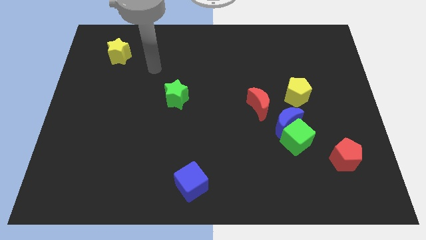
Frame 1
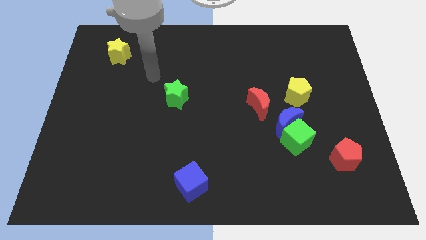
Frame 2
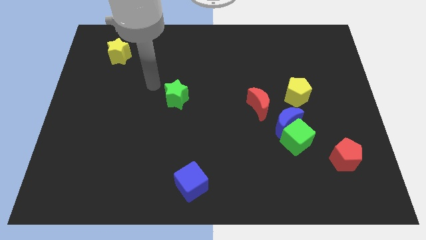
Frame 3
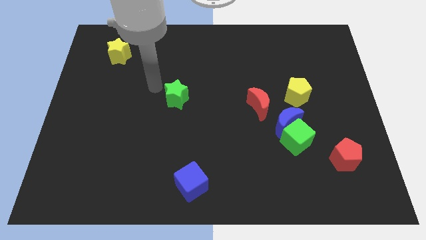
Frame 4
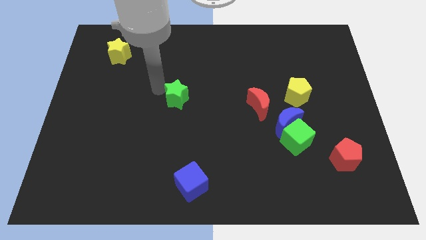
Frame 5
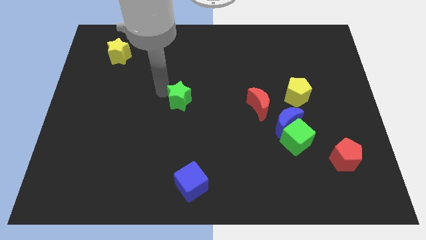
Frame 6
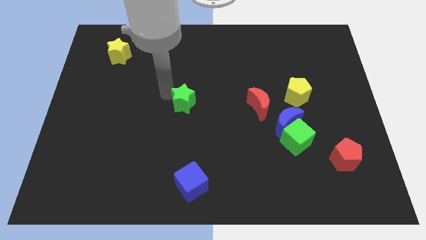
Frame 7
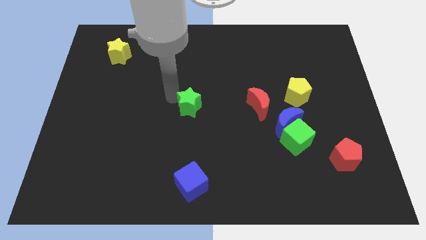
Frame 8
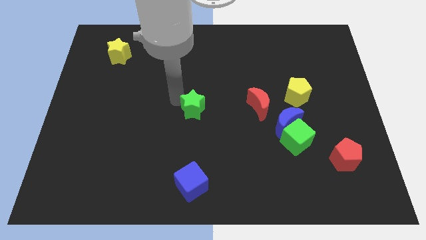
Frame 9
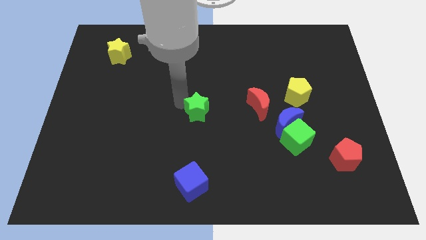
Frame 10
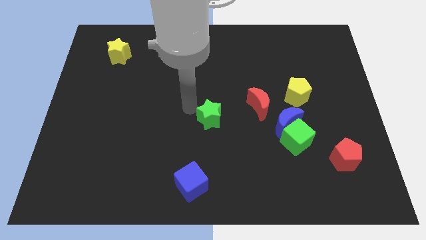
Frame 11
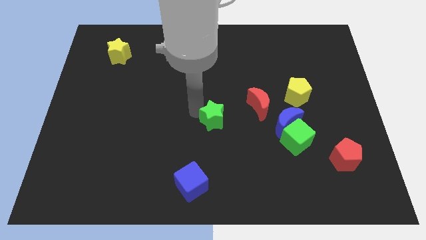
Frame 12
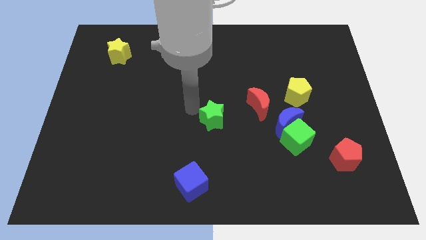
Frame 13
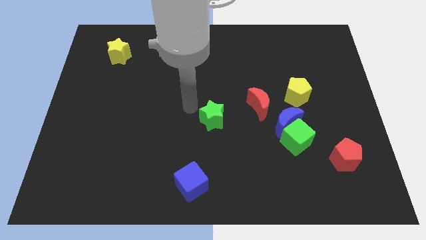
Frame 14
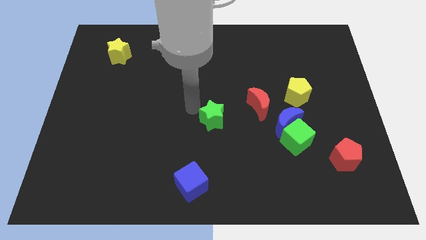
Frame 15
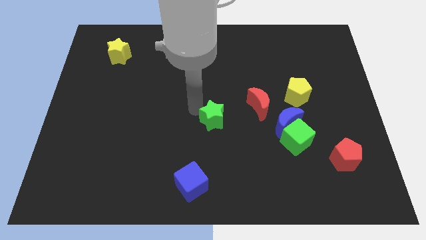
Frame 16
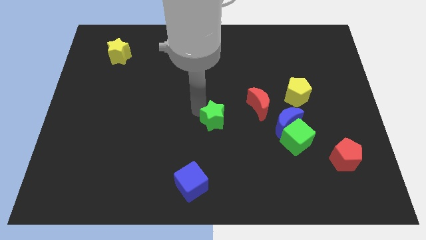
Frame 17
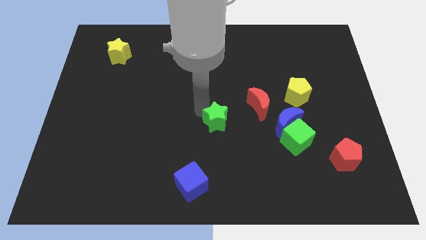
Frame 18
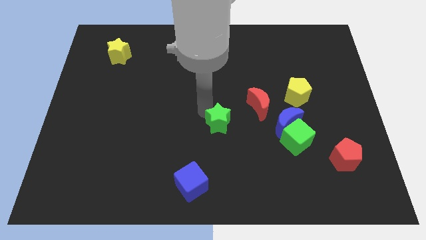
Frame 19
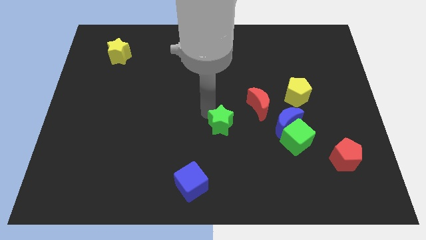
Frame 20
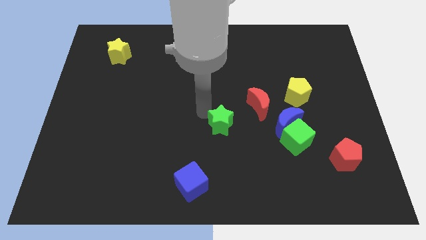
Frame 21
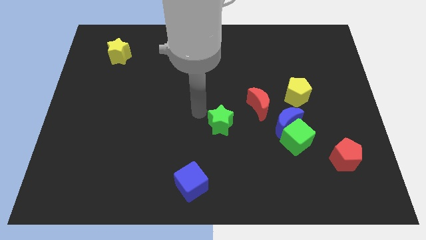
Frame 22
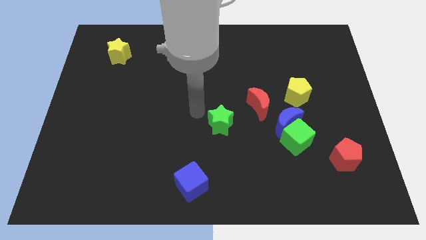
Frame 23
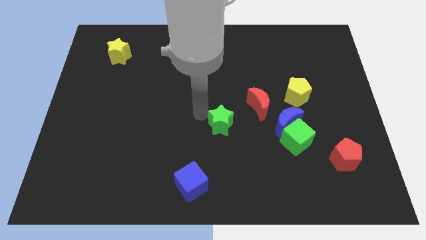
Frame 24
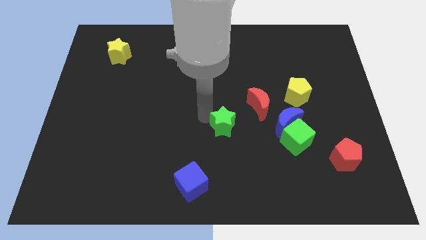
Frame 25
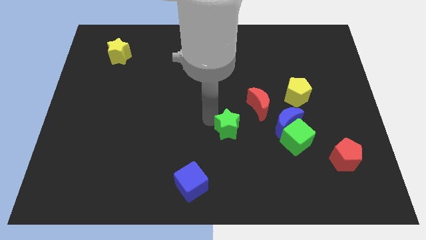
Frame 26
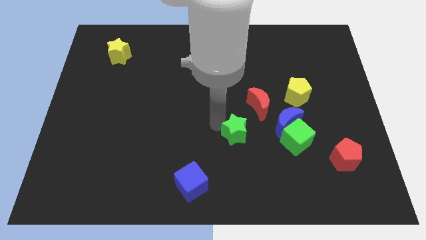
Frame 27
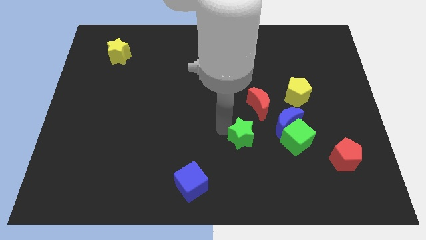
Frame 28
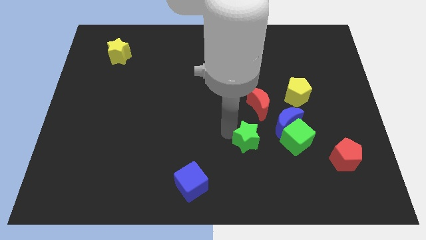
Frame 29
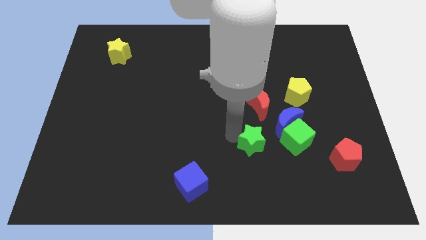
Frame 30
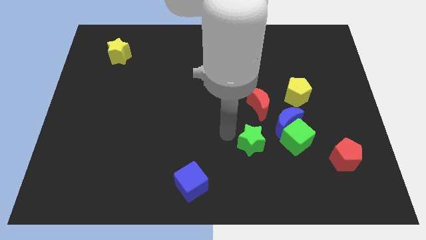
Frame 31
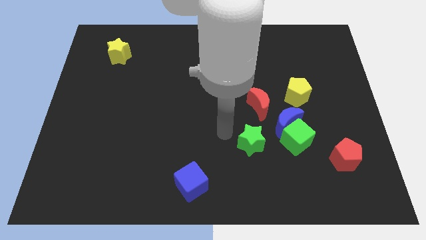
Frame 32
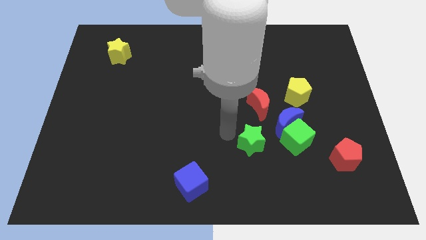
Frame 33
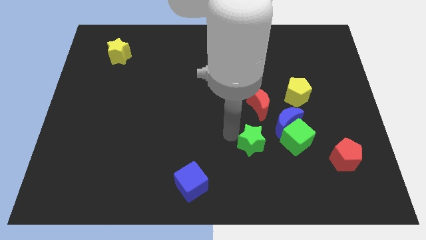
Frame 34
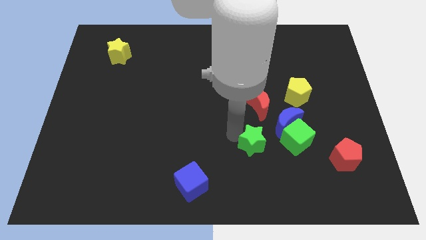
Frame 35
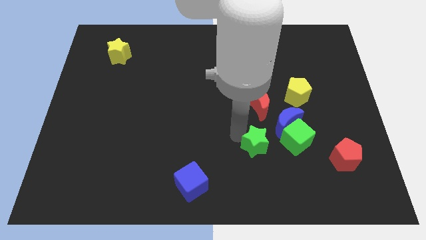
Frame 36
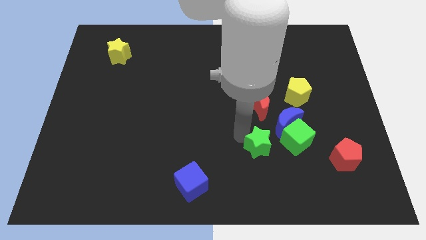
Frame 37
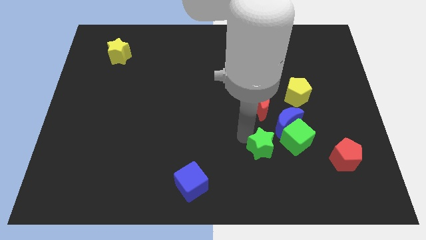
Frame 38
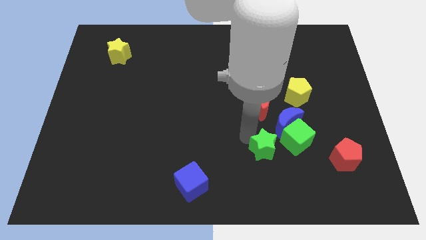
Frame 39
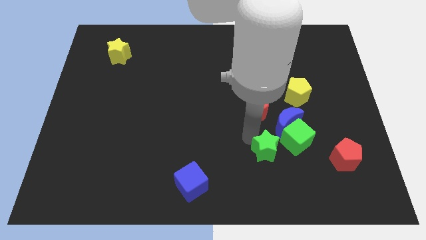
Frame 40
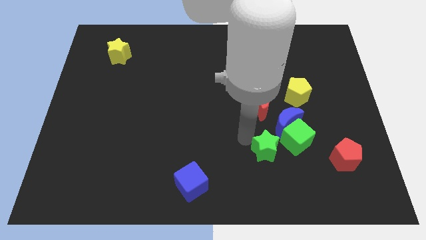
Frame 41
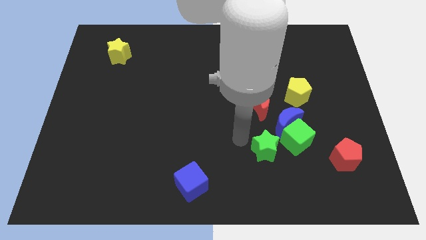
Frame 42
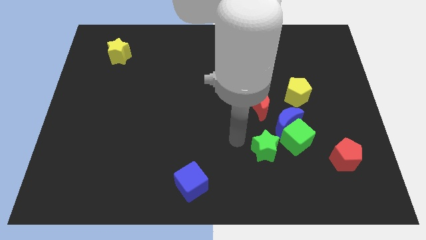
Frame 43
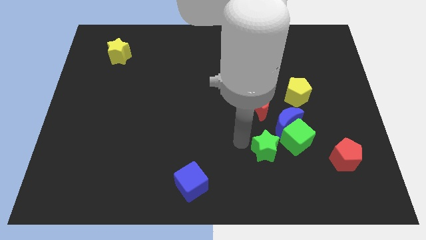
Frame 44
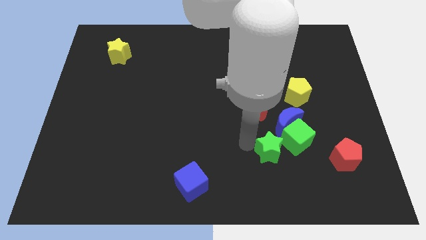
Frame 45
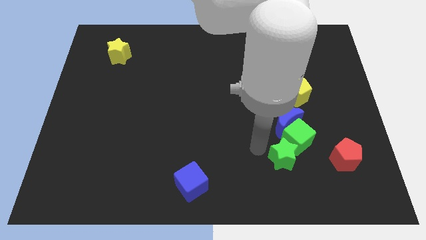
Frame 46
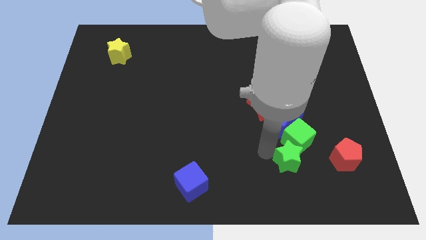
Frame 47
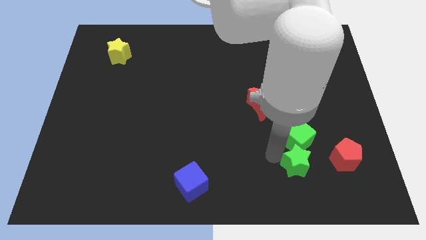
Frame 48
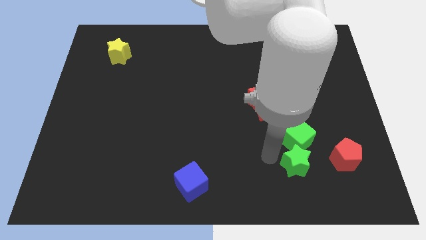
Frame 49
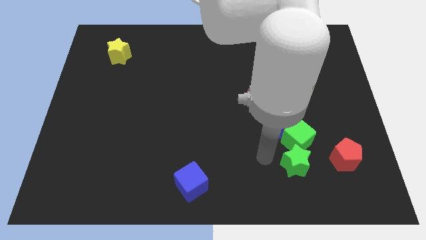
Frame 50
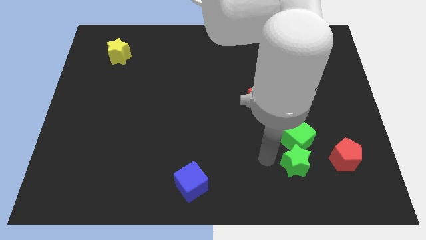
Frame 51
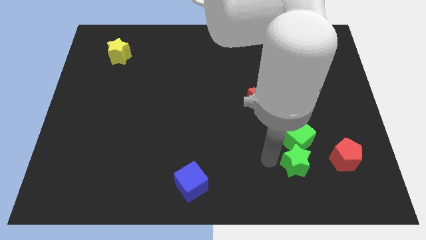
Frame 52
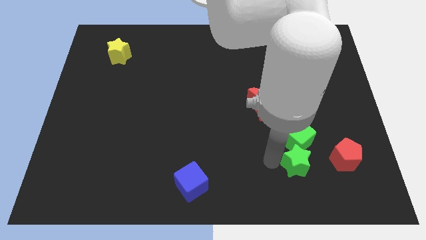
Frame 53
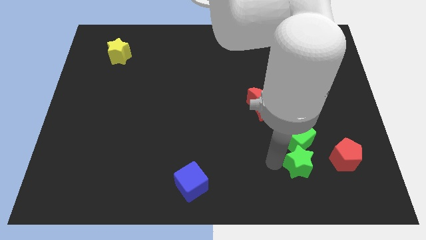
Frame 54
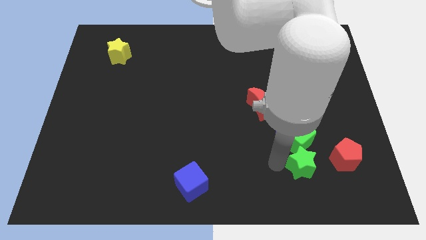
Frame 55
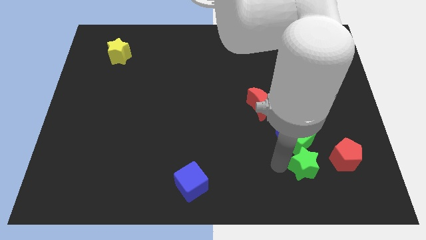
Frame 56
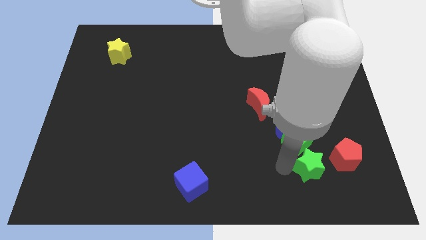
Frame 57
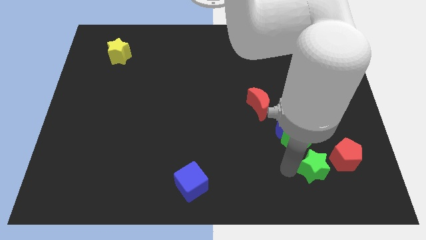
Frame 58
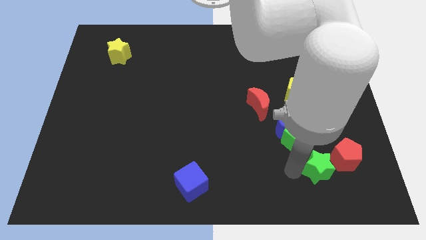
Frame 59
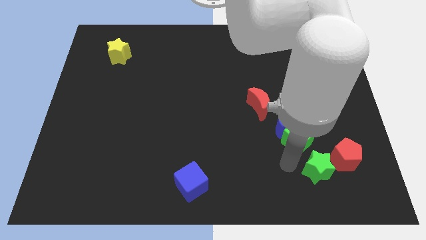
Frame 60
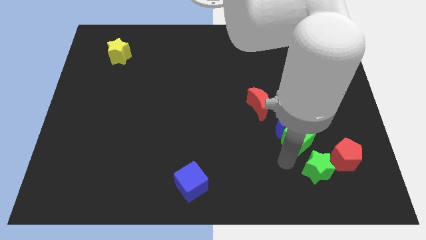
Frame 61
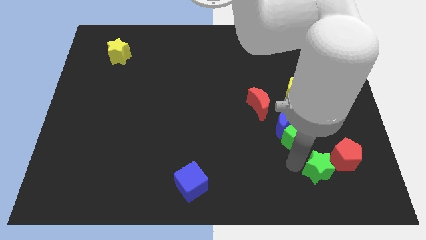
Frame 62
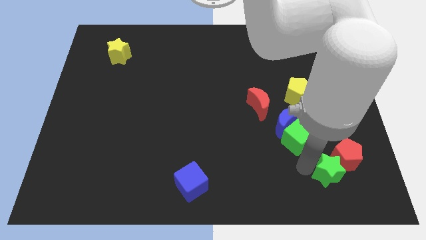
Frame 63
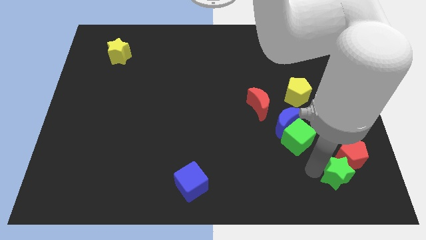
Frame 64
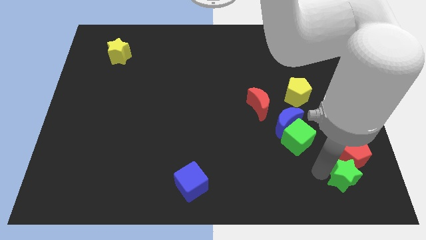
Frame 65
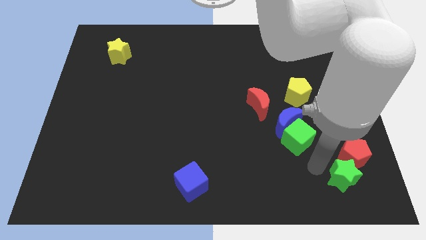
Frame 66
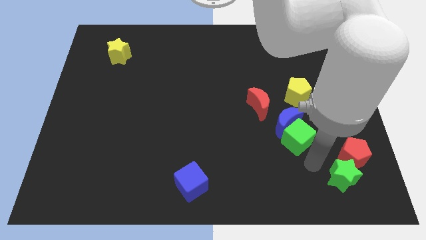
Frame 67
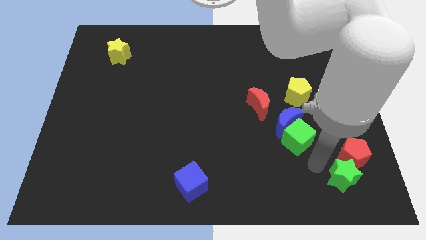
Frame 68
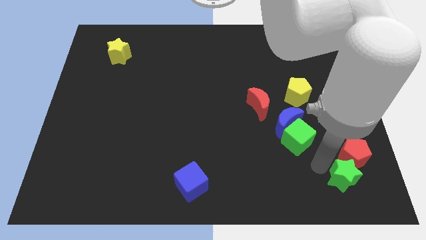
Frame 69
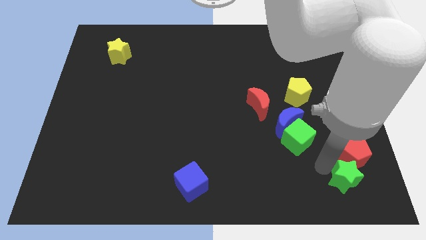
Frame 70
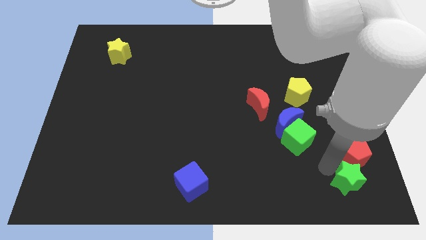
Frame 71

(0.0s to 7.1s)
put the green star to the bottom right of the board

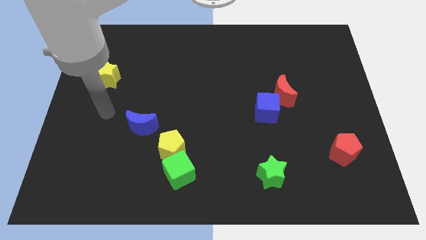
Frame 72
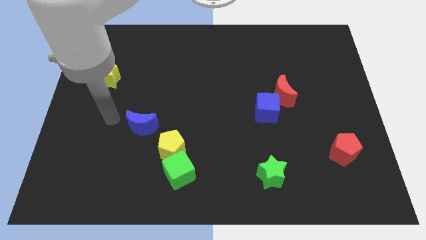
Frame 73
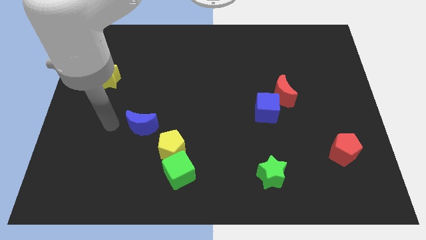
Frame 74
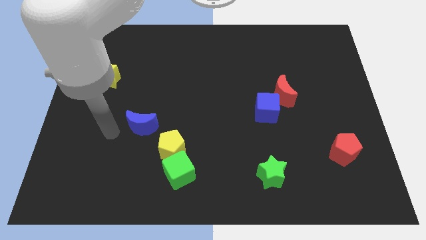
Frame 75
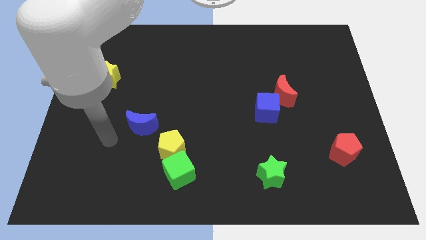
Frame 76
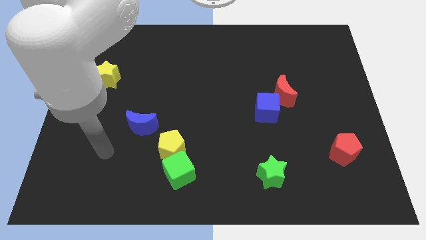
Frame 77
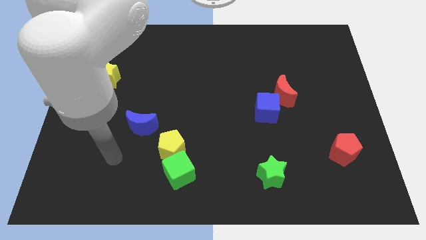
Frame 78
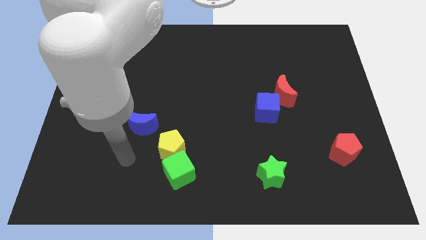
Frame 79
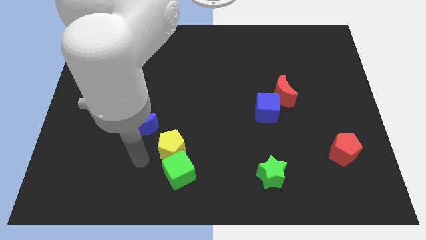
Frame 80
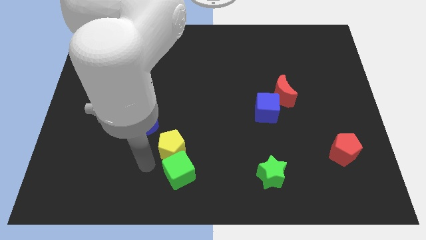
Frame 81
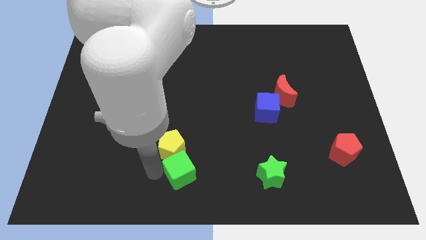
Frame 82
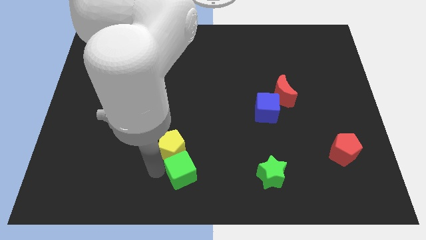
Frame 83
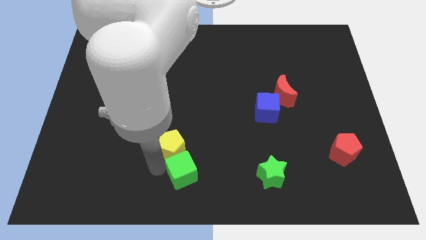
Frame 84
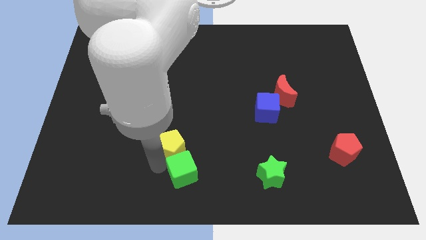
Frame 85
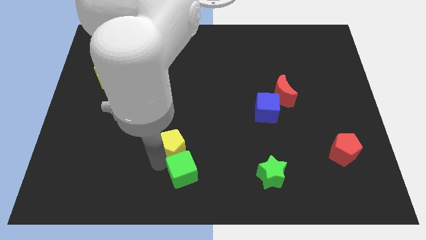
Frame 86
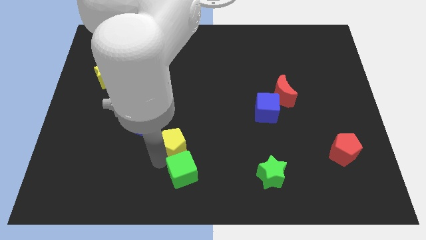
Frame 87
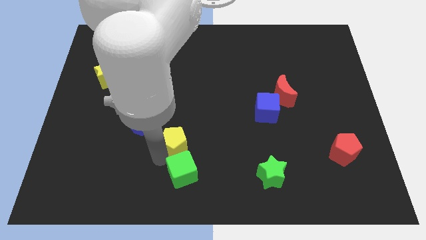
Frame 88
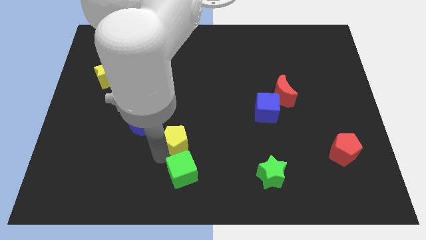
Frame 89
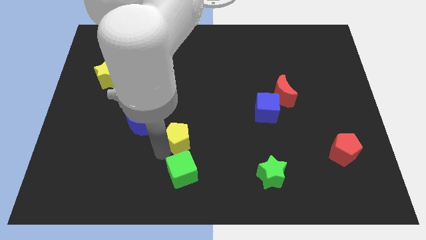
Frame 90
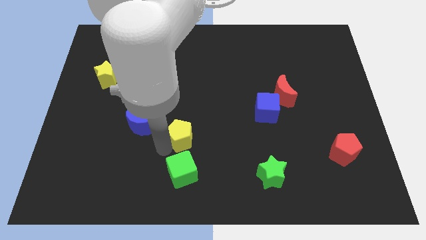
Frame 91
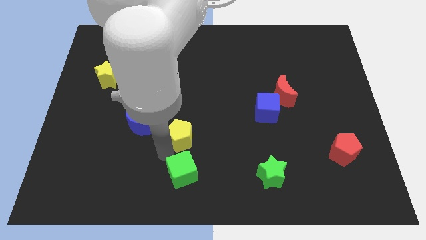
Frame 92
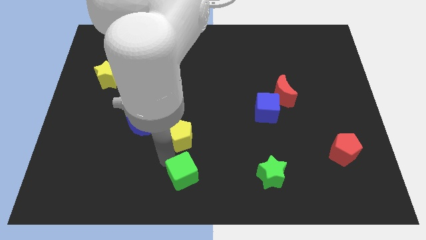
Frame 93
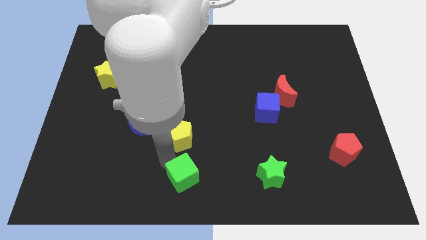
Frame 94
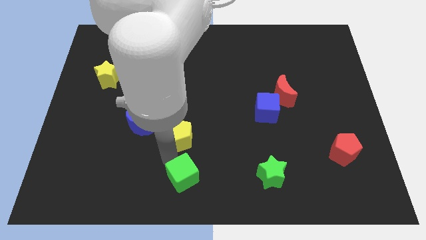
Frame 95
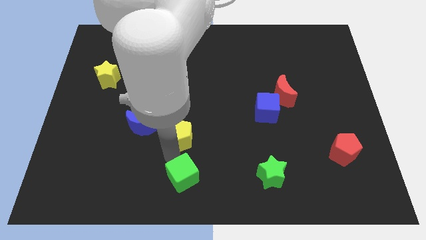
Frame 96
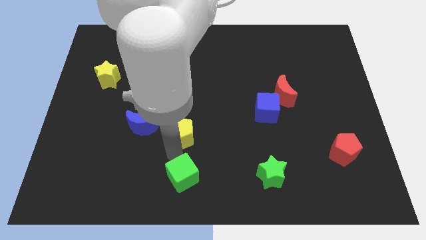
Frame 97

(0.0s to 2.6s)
move the yellow pentagon to the center
